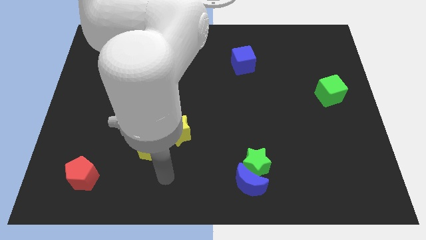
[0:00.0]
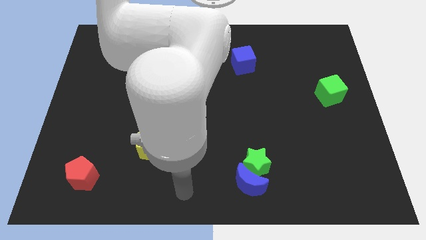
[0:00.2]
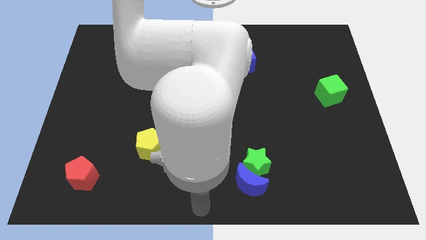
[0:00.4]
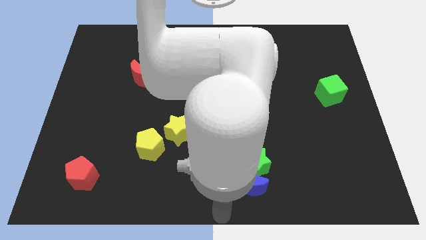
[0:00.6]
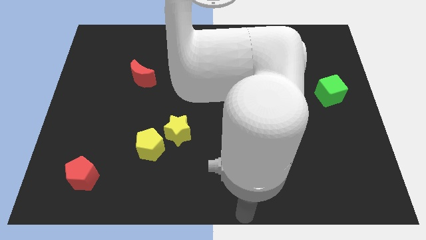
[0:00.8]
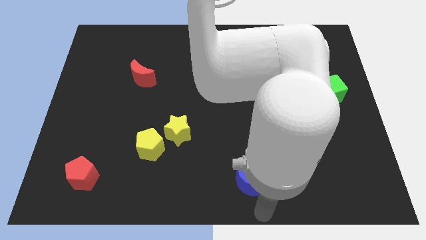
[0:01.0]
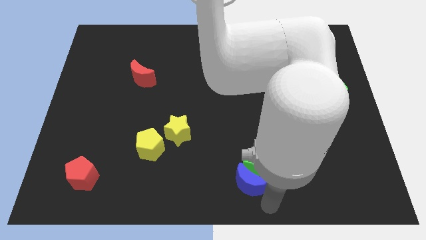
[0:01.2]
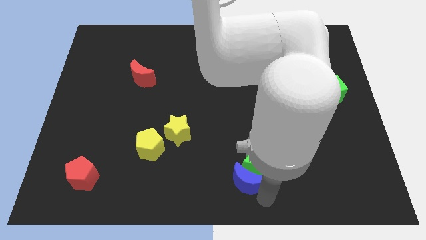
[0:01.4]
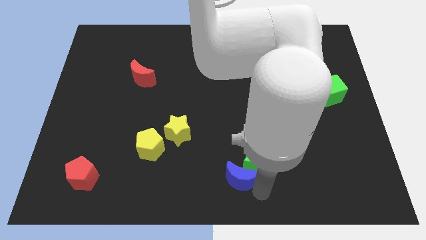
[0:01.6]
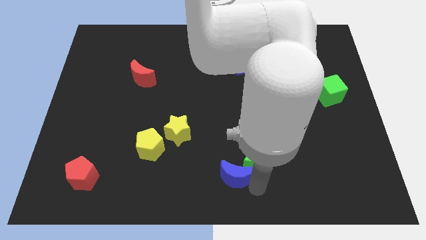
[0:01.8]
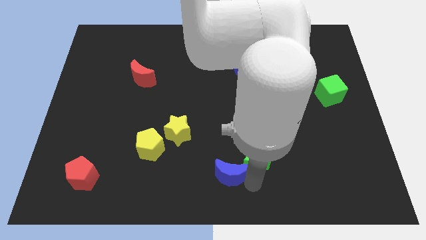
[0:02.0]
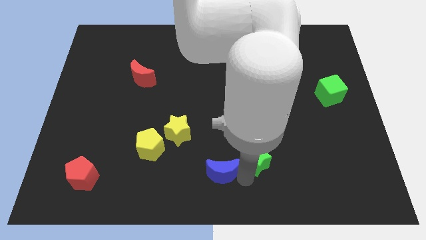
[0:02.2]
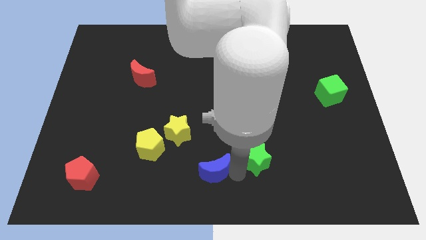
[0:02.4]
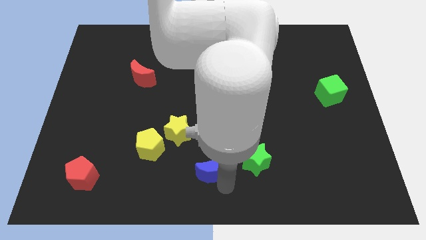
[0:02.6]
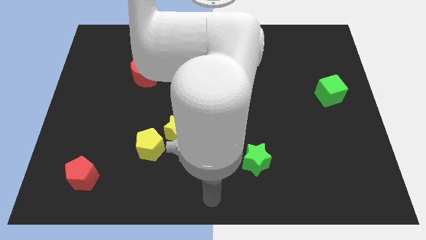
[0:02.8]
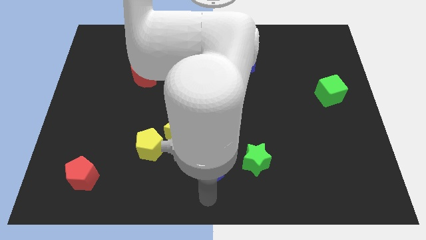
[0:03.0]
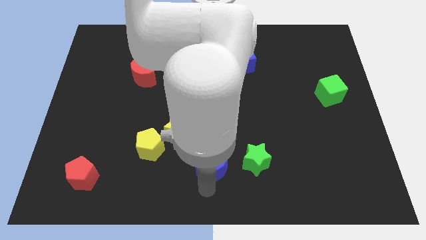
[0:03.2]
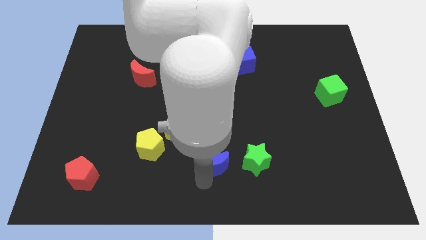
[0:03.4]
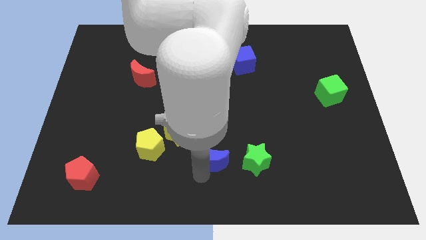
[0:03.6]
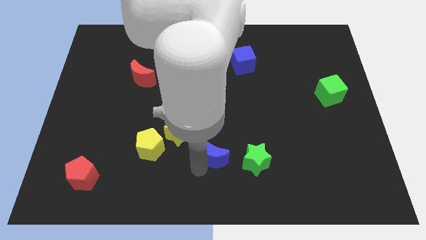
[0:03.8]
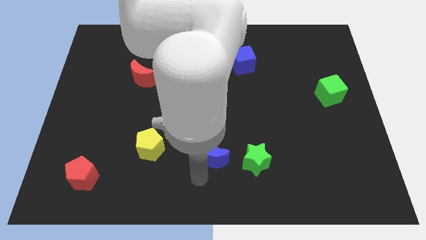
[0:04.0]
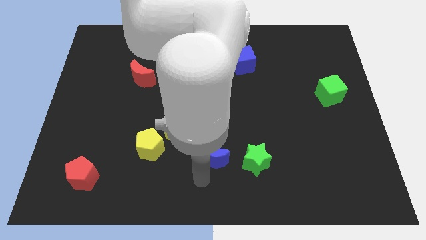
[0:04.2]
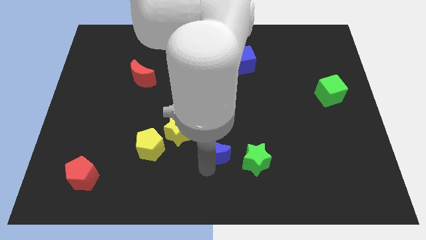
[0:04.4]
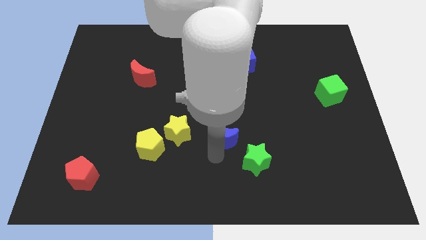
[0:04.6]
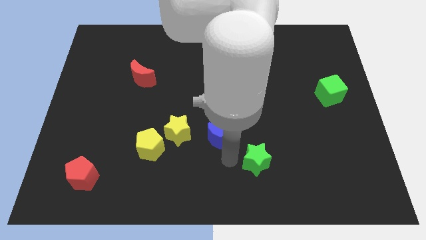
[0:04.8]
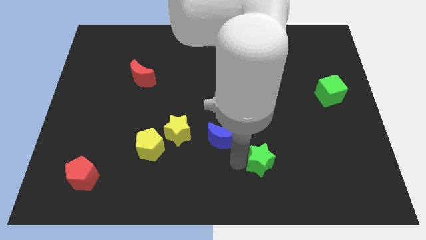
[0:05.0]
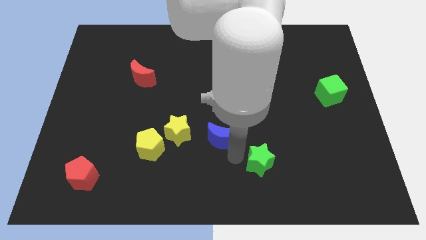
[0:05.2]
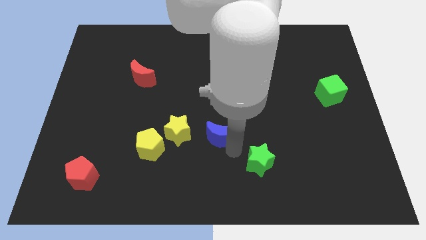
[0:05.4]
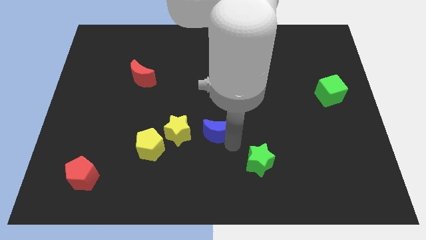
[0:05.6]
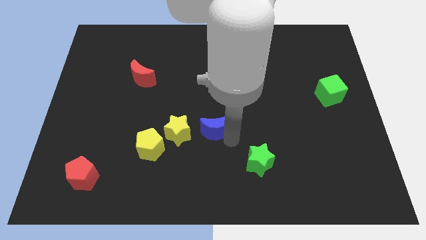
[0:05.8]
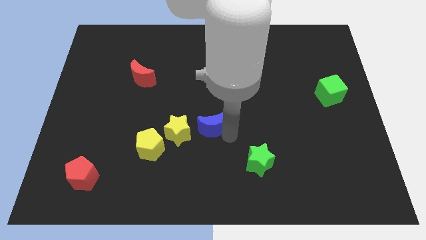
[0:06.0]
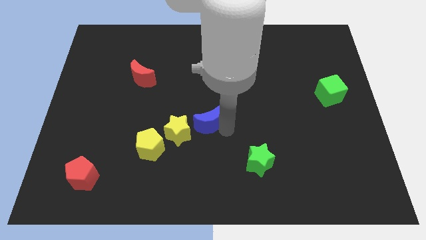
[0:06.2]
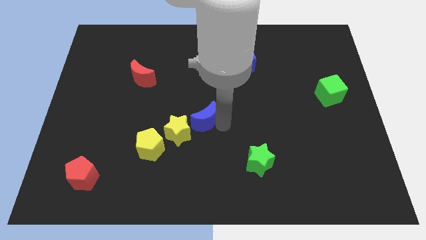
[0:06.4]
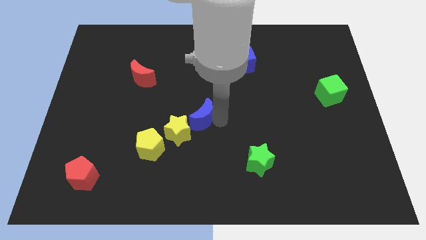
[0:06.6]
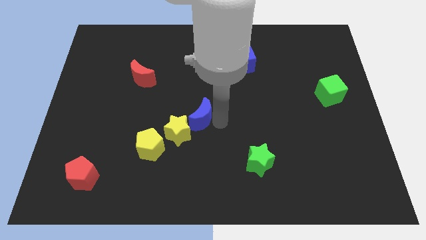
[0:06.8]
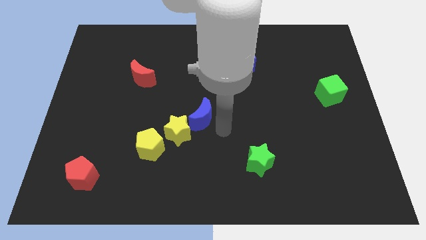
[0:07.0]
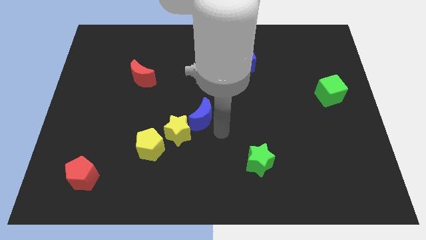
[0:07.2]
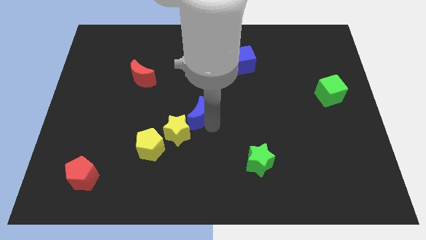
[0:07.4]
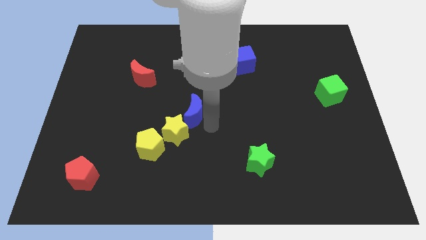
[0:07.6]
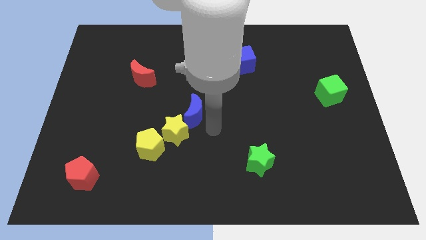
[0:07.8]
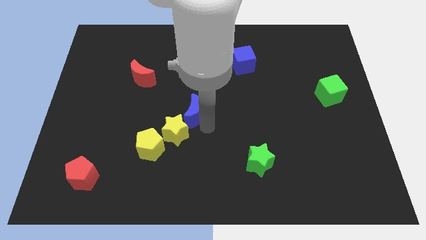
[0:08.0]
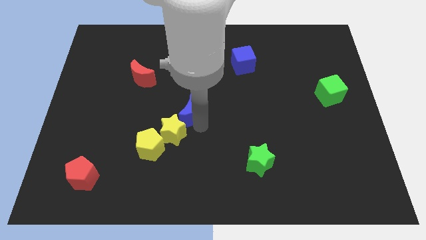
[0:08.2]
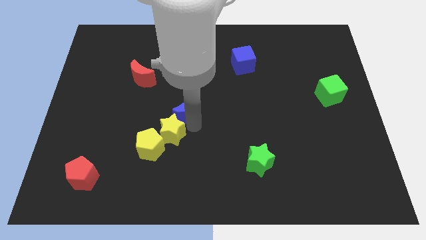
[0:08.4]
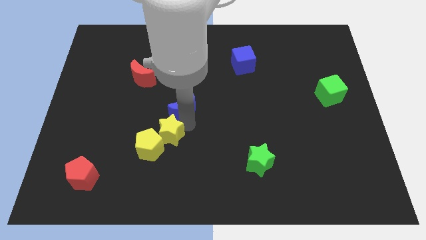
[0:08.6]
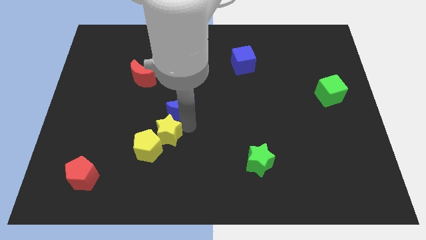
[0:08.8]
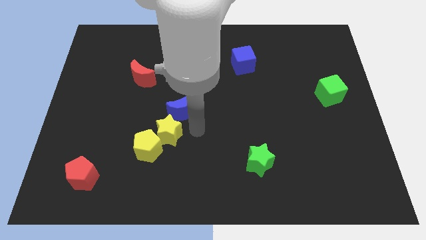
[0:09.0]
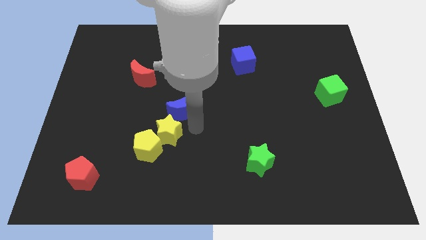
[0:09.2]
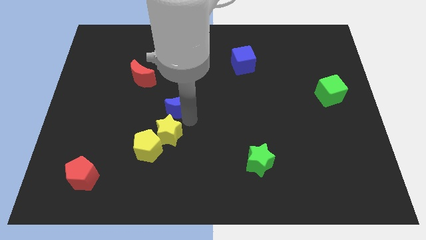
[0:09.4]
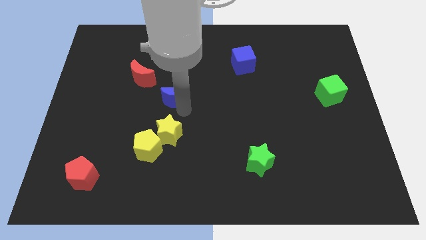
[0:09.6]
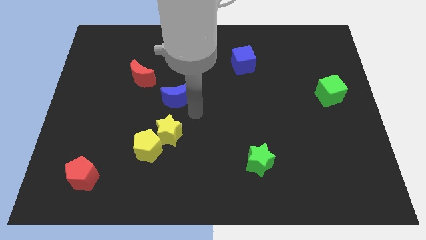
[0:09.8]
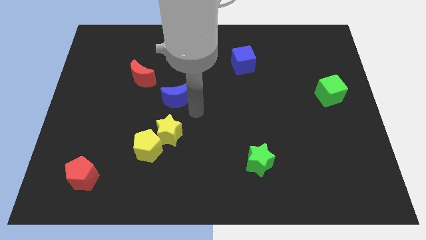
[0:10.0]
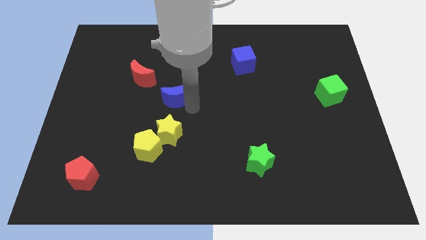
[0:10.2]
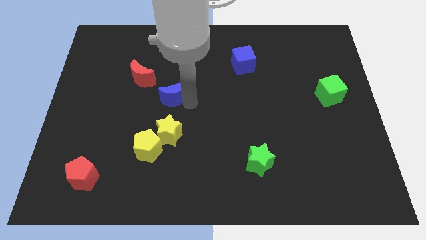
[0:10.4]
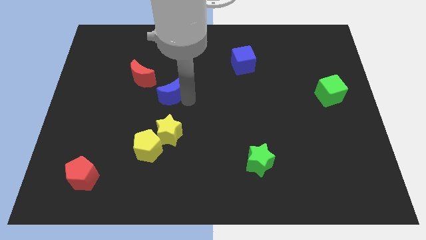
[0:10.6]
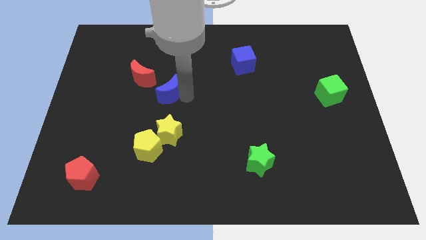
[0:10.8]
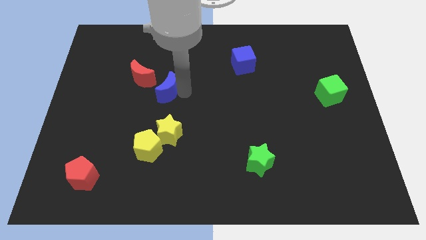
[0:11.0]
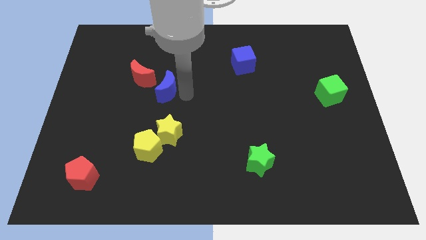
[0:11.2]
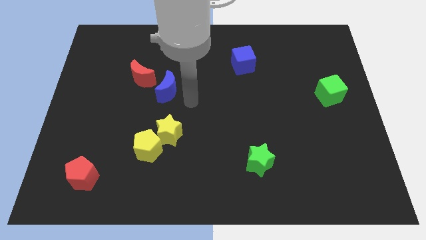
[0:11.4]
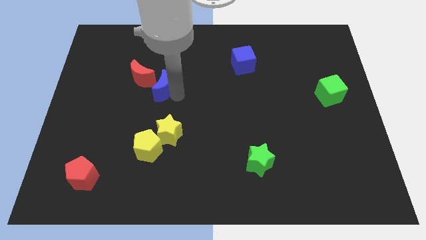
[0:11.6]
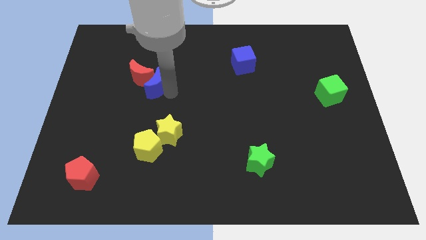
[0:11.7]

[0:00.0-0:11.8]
push the blue moon close to the red moon

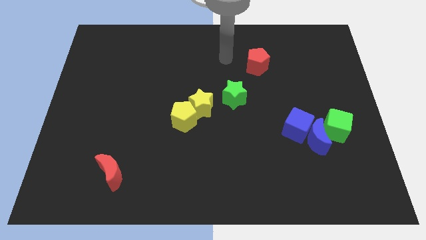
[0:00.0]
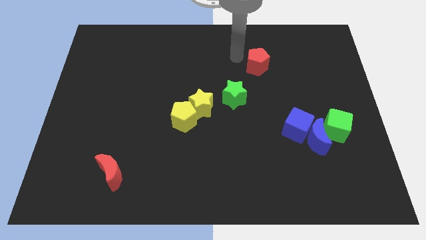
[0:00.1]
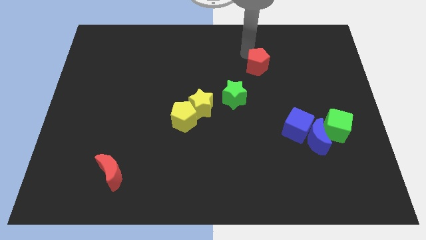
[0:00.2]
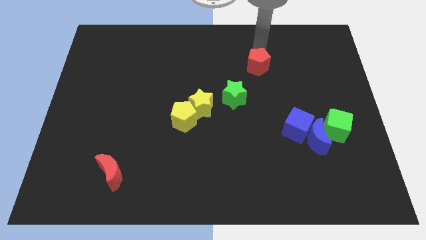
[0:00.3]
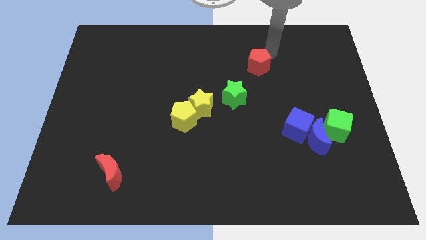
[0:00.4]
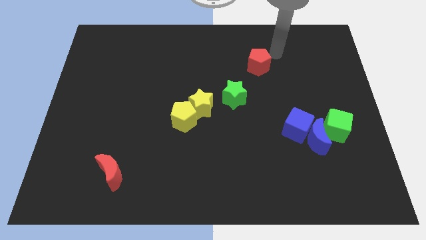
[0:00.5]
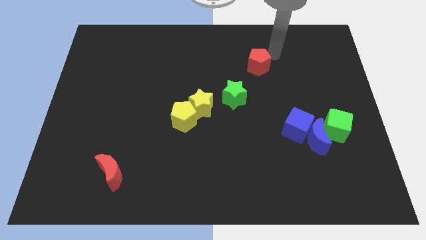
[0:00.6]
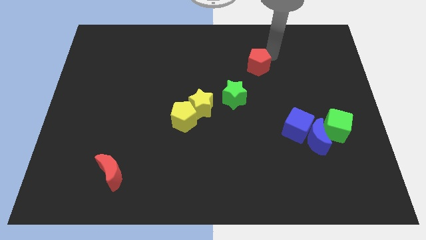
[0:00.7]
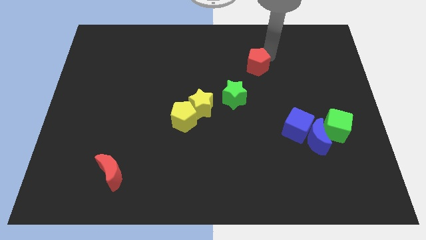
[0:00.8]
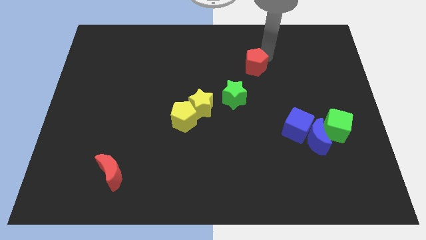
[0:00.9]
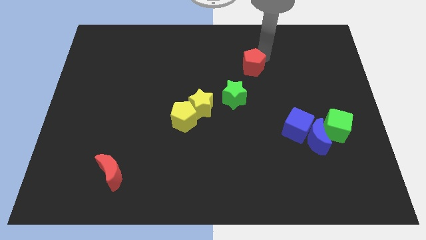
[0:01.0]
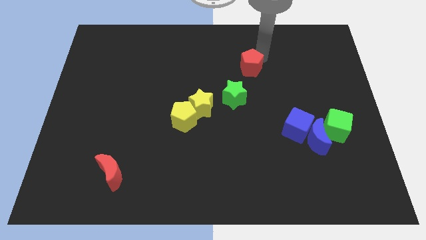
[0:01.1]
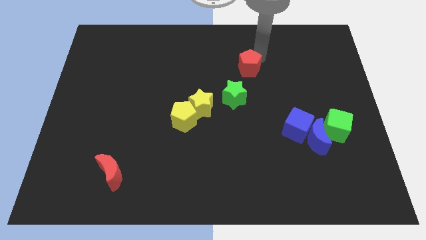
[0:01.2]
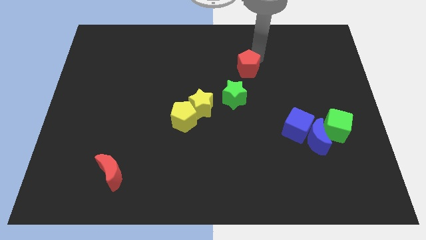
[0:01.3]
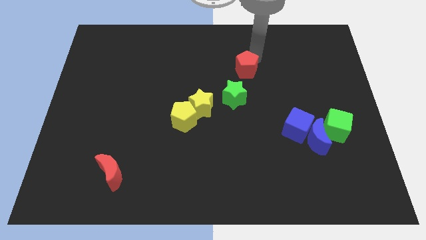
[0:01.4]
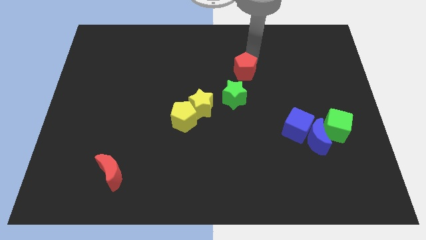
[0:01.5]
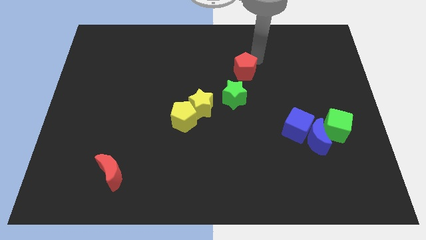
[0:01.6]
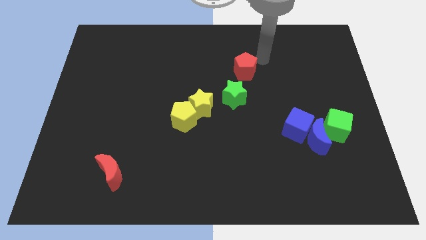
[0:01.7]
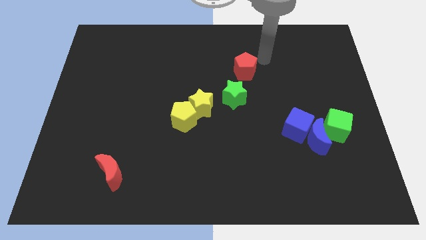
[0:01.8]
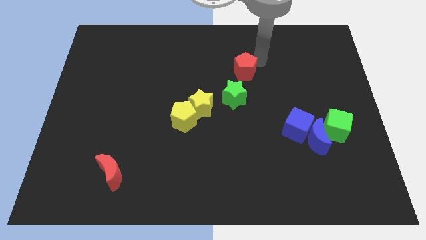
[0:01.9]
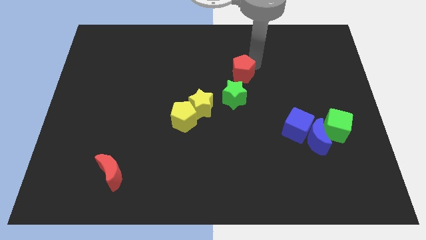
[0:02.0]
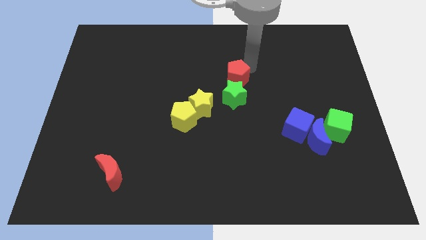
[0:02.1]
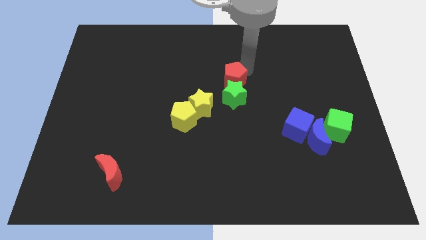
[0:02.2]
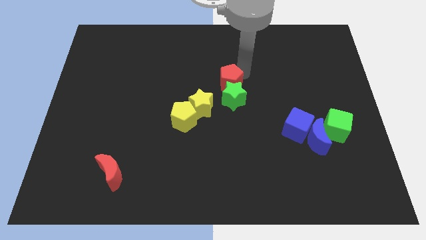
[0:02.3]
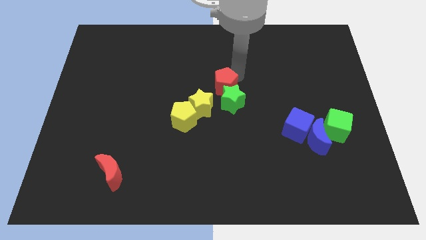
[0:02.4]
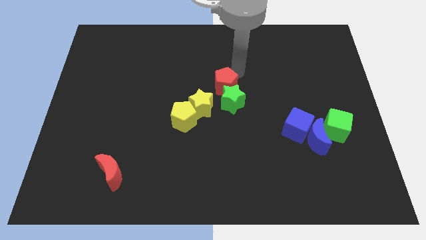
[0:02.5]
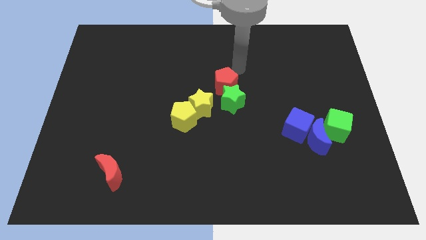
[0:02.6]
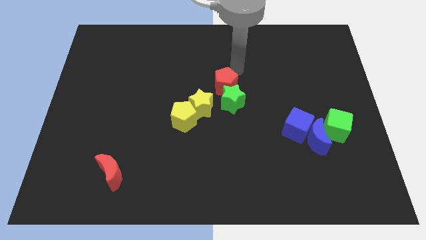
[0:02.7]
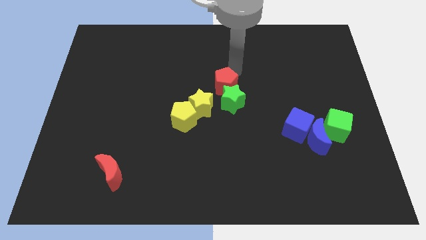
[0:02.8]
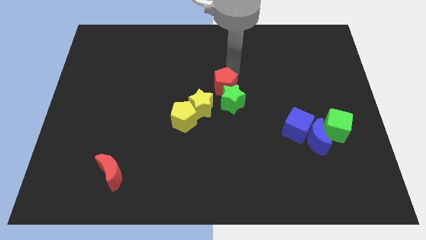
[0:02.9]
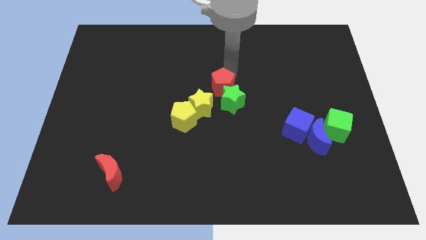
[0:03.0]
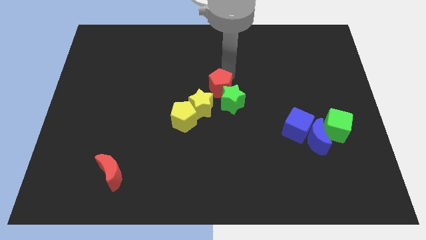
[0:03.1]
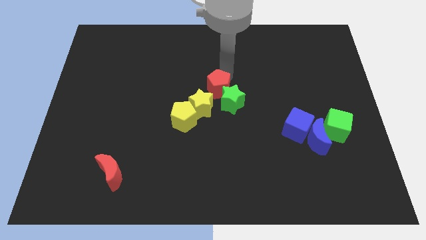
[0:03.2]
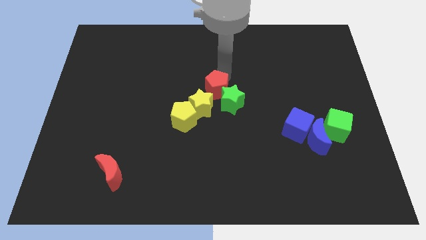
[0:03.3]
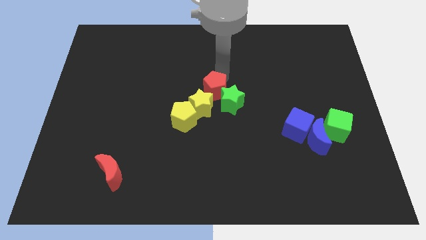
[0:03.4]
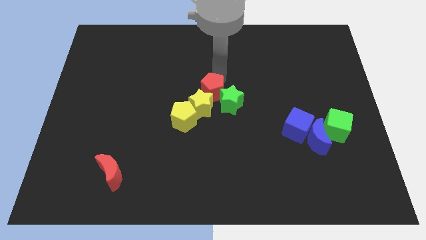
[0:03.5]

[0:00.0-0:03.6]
put the red pentagon to the yellow star
